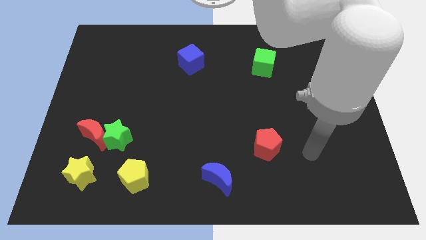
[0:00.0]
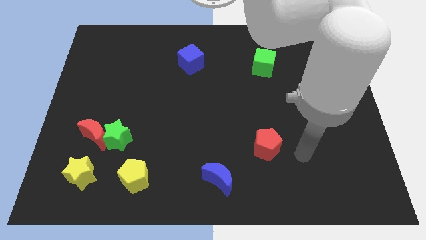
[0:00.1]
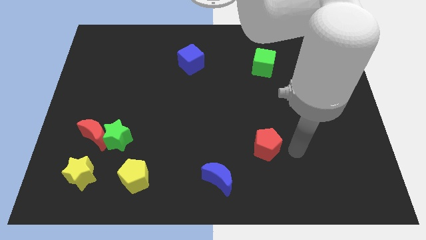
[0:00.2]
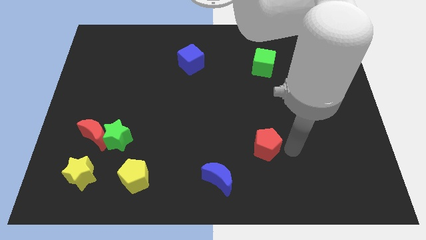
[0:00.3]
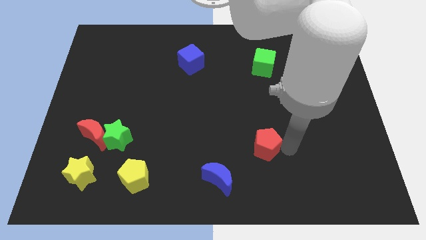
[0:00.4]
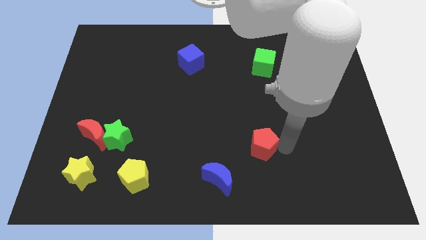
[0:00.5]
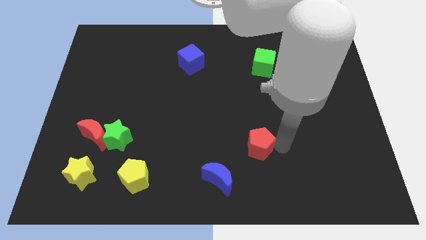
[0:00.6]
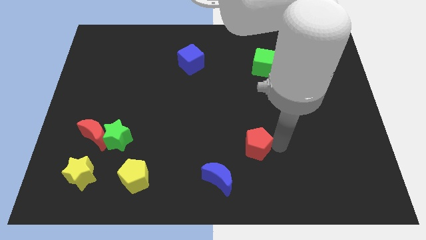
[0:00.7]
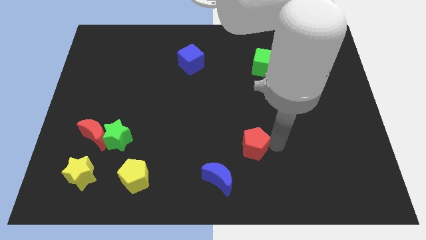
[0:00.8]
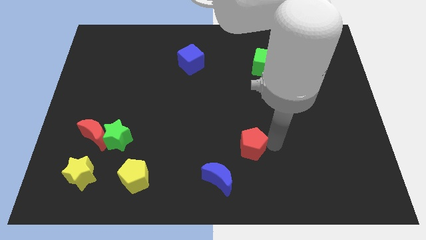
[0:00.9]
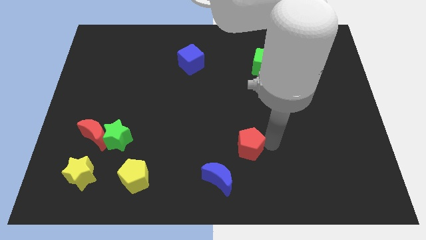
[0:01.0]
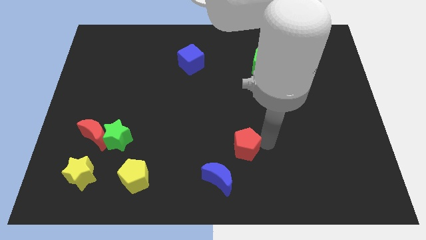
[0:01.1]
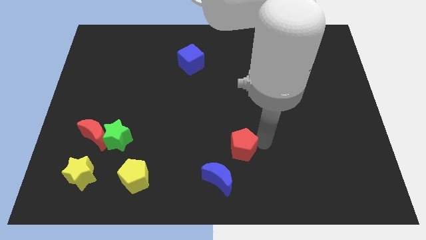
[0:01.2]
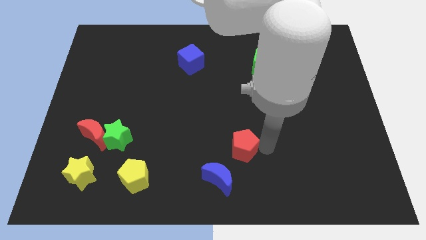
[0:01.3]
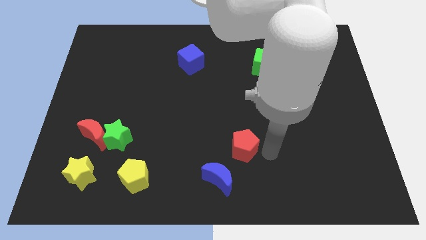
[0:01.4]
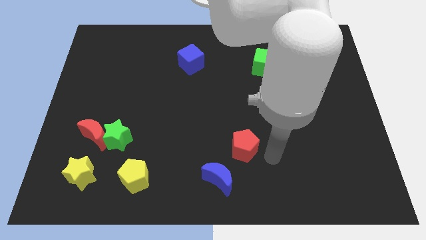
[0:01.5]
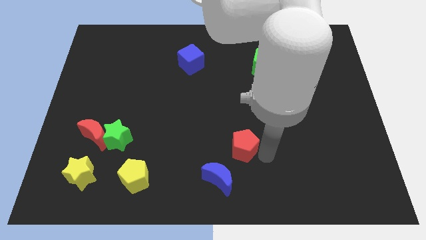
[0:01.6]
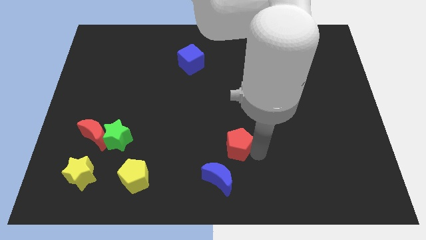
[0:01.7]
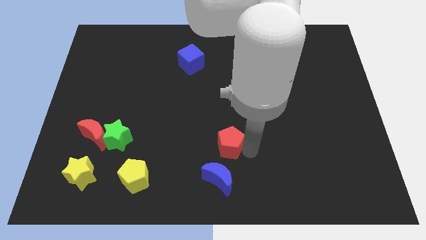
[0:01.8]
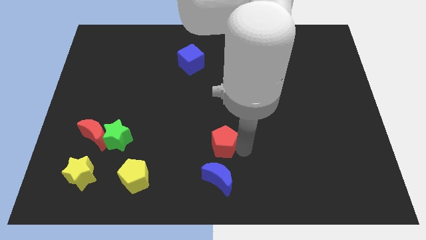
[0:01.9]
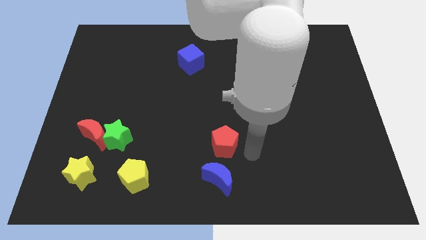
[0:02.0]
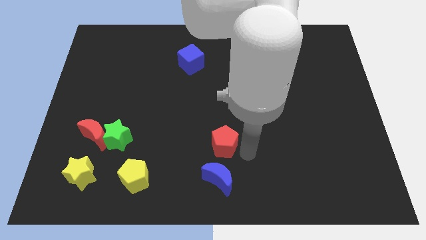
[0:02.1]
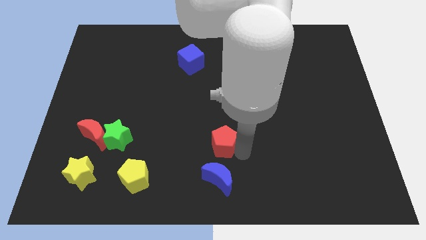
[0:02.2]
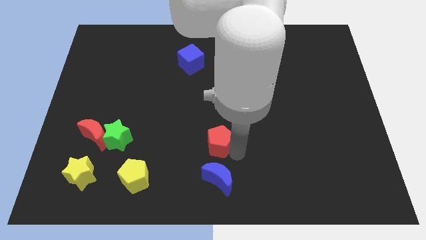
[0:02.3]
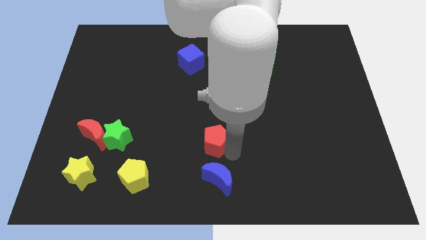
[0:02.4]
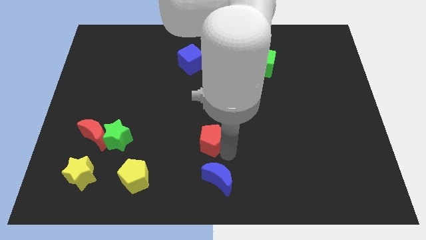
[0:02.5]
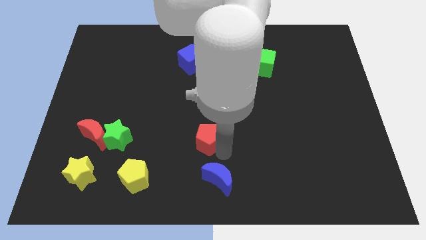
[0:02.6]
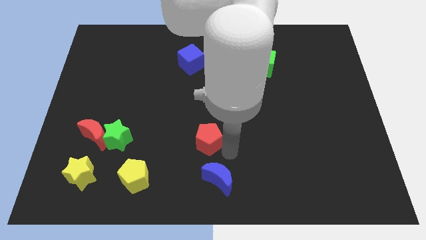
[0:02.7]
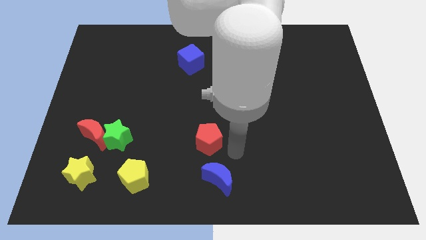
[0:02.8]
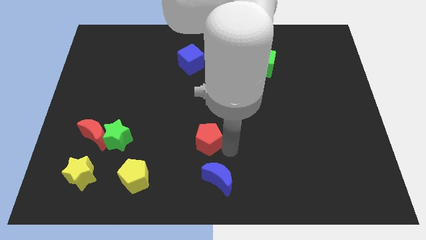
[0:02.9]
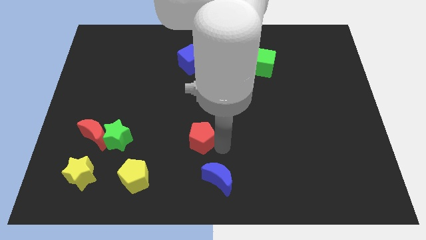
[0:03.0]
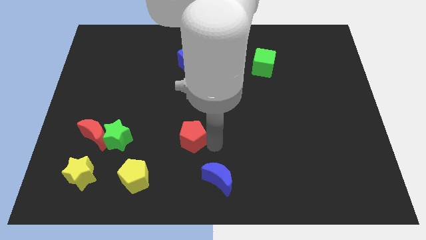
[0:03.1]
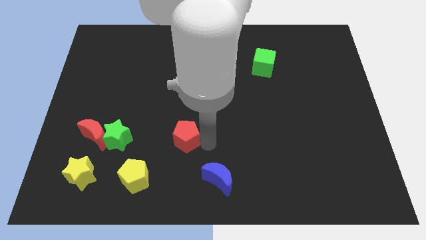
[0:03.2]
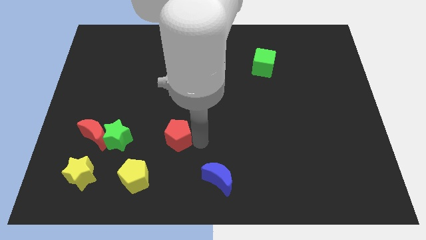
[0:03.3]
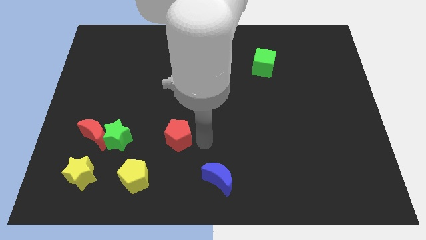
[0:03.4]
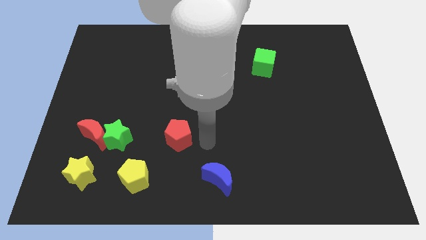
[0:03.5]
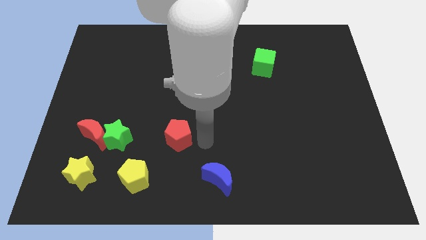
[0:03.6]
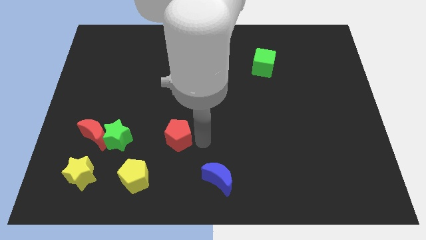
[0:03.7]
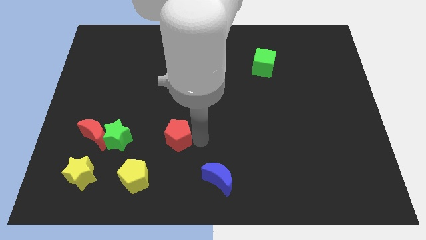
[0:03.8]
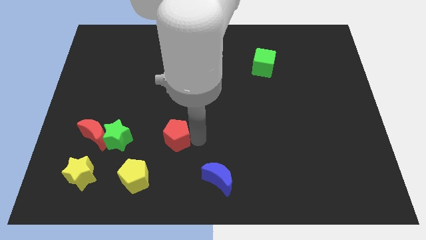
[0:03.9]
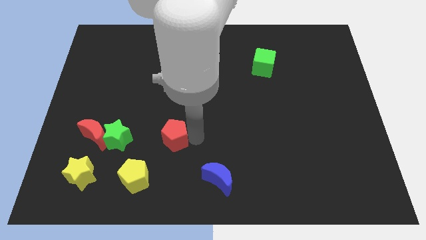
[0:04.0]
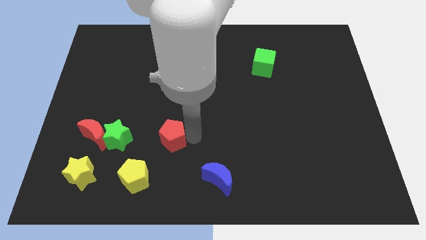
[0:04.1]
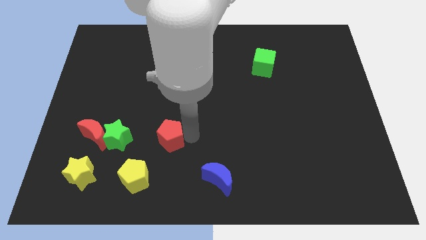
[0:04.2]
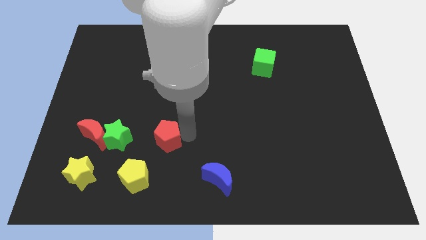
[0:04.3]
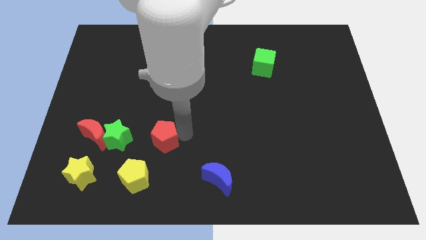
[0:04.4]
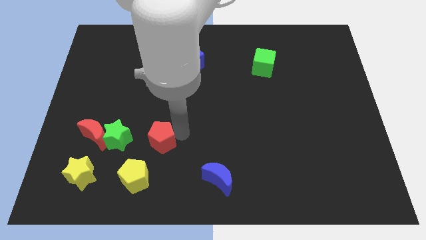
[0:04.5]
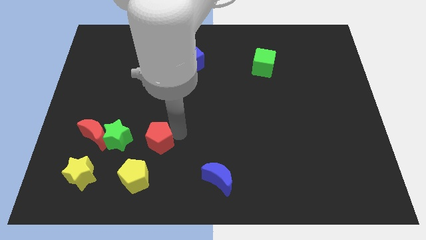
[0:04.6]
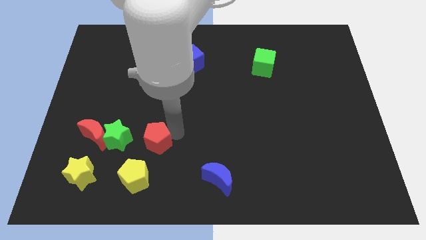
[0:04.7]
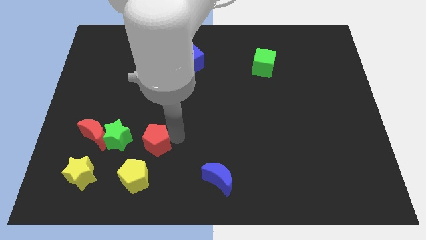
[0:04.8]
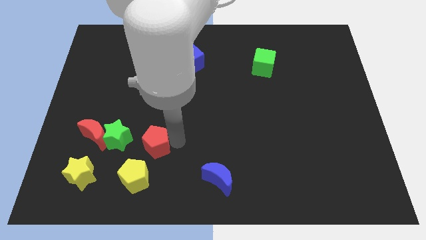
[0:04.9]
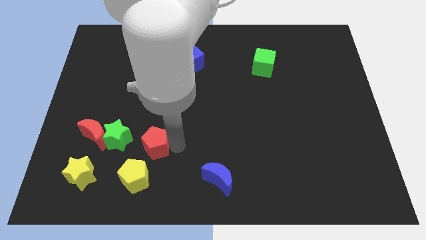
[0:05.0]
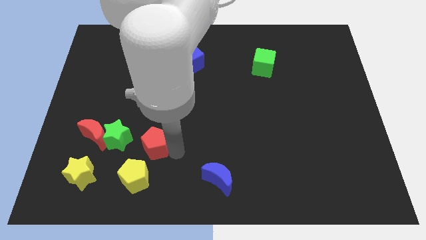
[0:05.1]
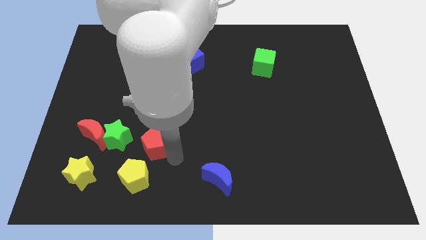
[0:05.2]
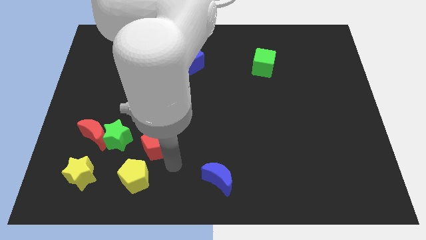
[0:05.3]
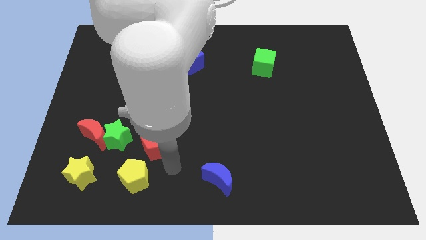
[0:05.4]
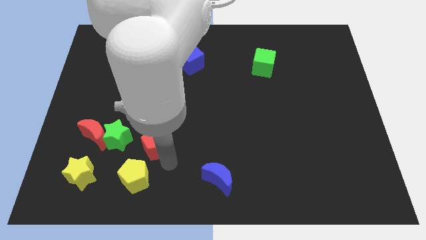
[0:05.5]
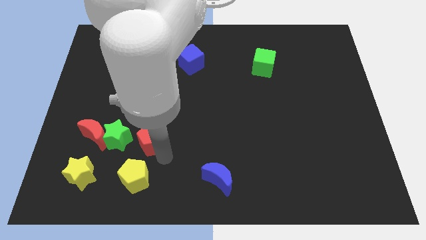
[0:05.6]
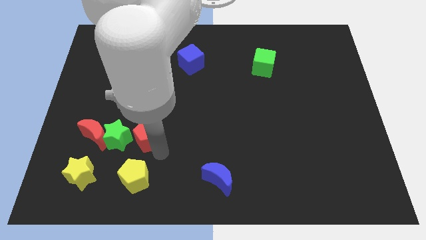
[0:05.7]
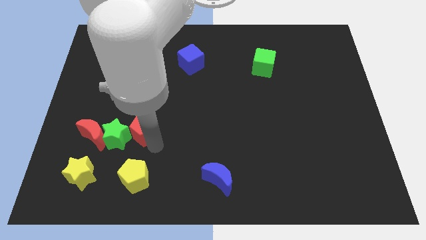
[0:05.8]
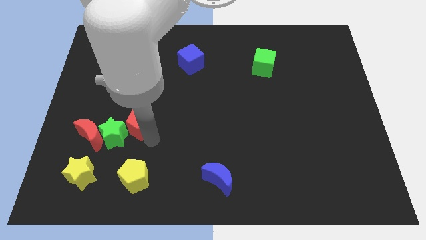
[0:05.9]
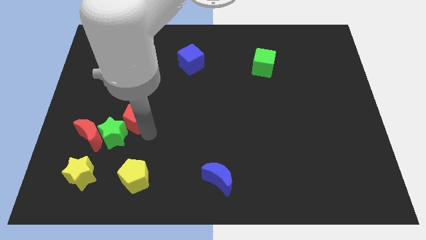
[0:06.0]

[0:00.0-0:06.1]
slide the red pentagon to the top right side of the red moon

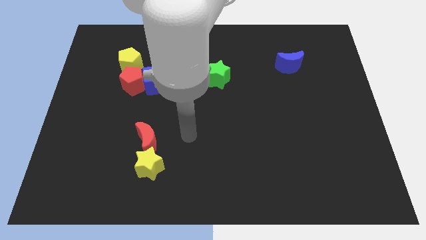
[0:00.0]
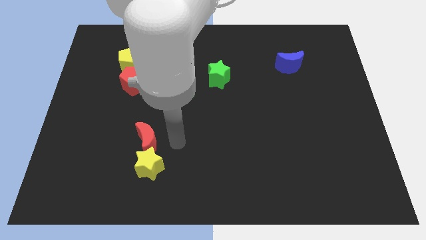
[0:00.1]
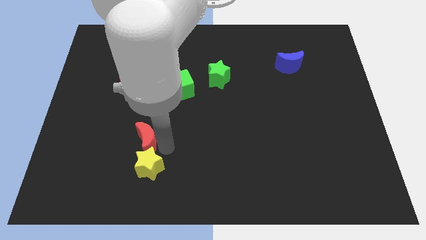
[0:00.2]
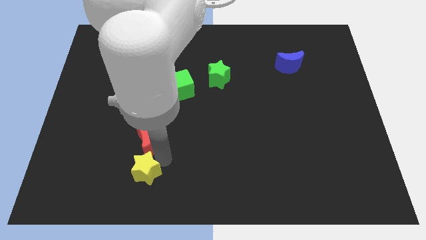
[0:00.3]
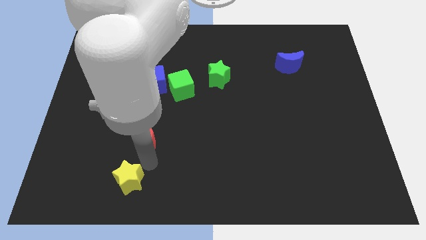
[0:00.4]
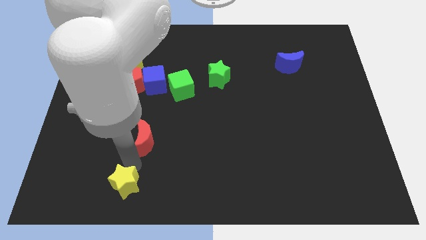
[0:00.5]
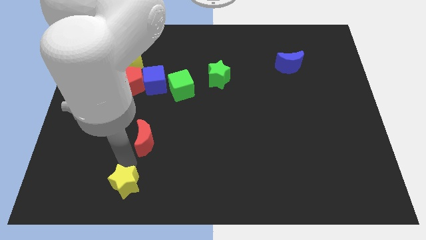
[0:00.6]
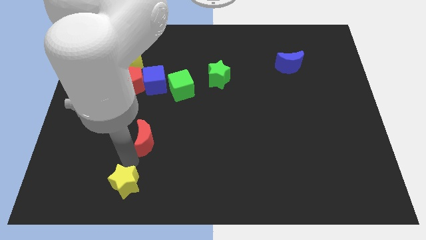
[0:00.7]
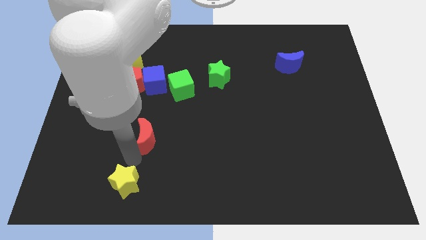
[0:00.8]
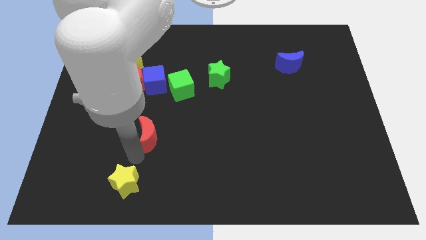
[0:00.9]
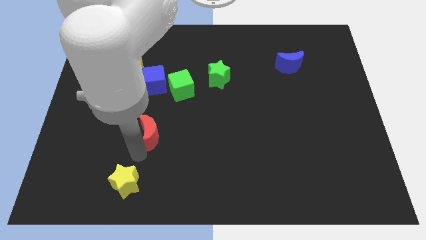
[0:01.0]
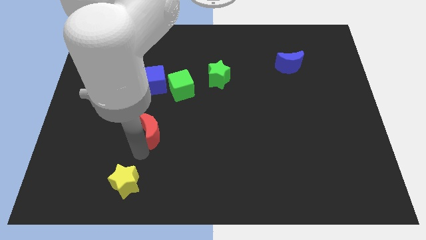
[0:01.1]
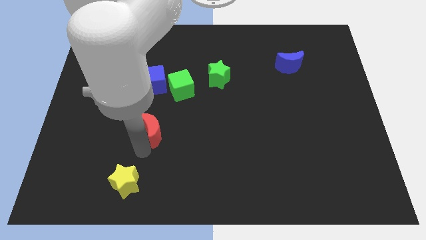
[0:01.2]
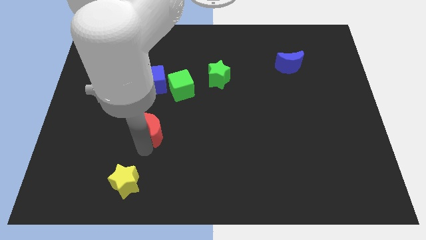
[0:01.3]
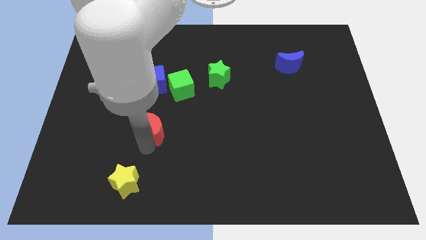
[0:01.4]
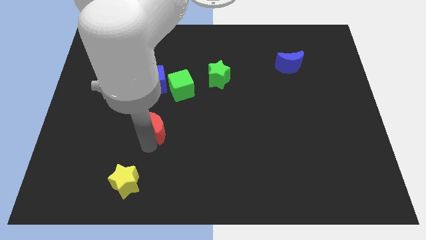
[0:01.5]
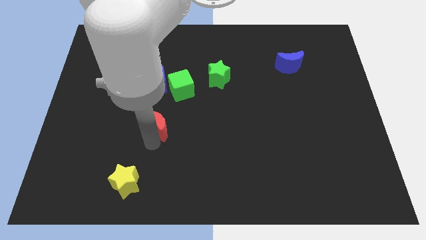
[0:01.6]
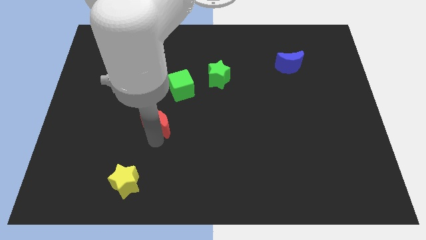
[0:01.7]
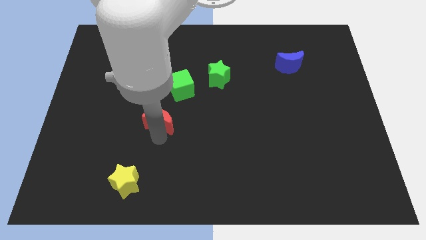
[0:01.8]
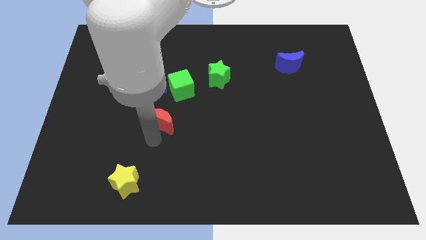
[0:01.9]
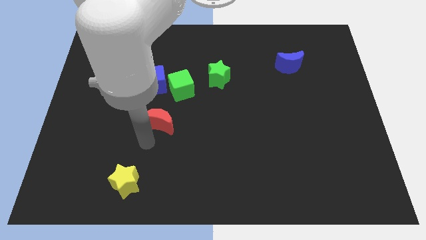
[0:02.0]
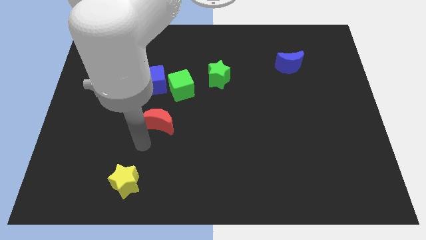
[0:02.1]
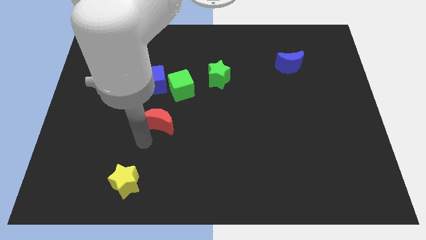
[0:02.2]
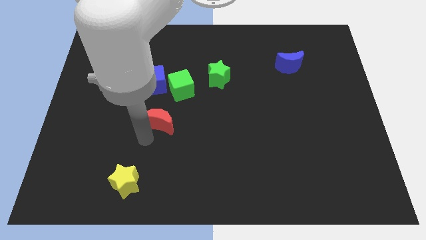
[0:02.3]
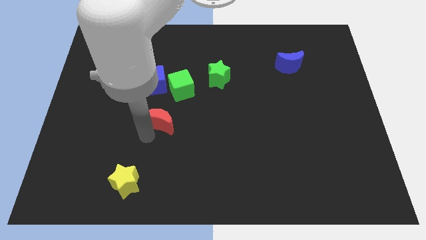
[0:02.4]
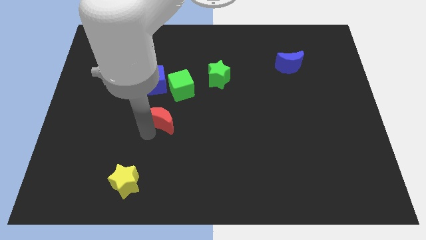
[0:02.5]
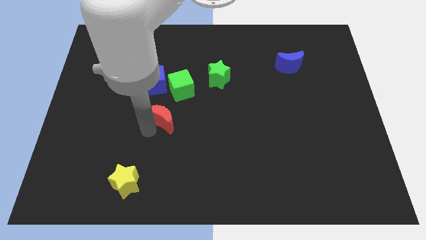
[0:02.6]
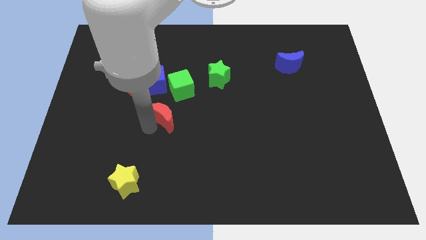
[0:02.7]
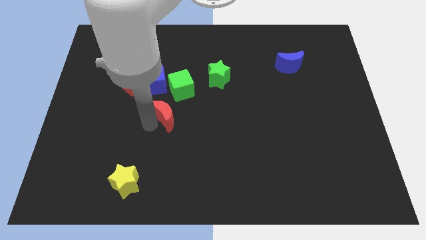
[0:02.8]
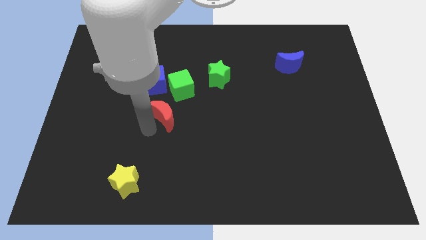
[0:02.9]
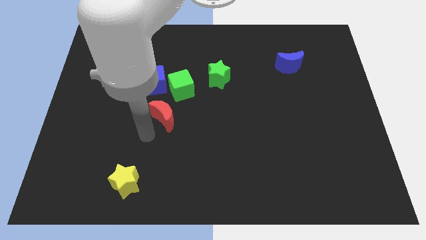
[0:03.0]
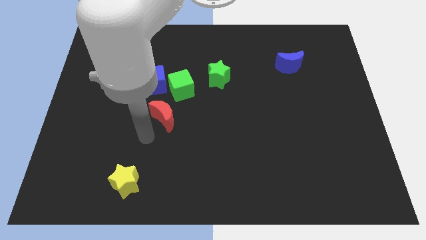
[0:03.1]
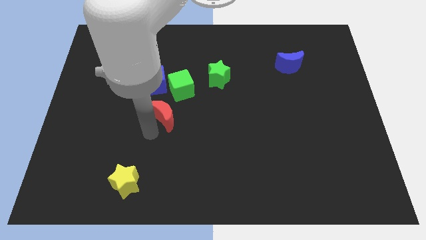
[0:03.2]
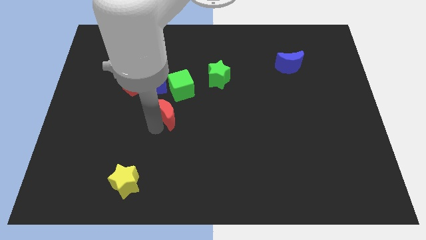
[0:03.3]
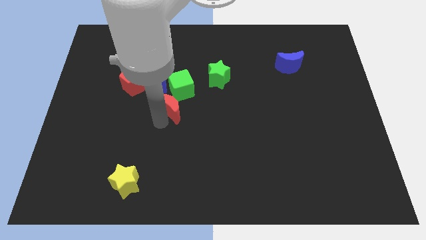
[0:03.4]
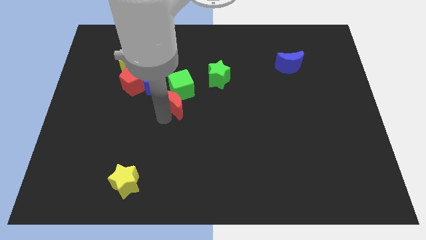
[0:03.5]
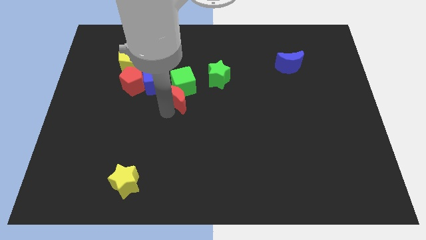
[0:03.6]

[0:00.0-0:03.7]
put the red moon to the bottom left of the green star
